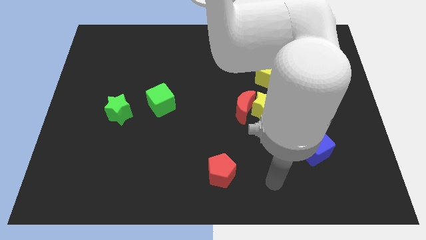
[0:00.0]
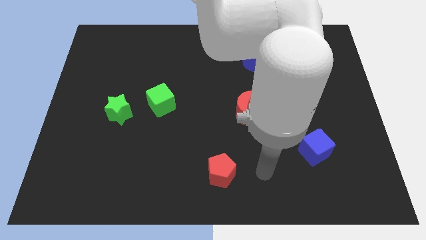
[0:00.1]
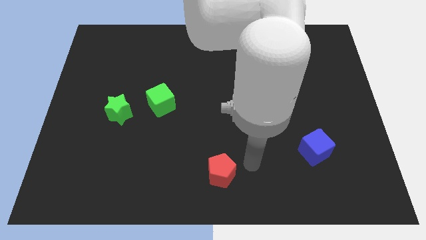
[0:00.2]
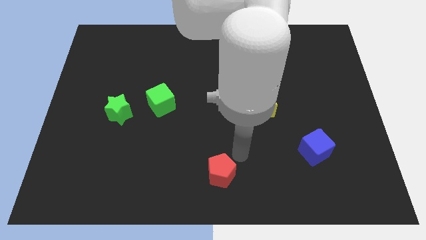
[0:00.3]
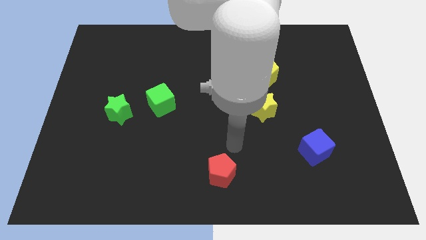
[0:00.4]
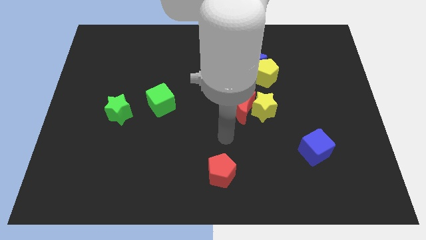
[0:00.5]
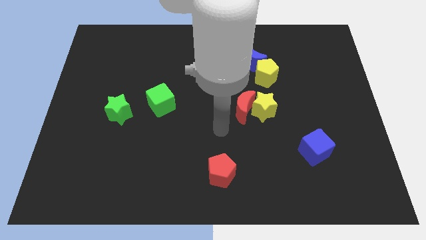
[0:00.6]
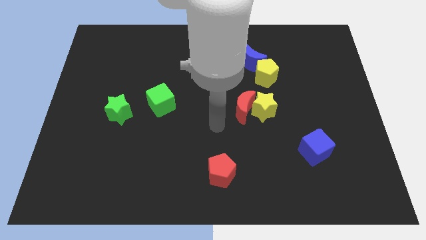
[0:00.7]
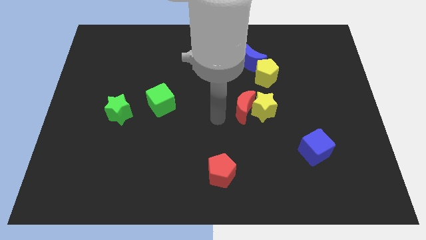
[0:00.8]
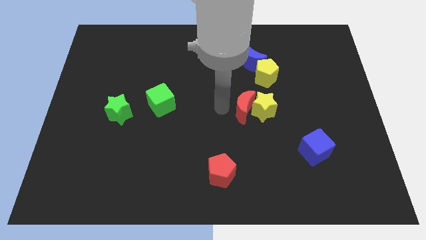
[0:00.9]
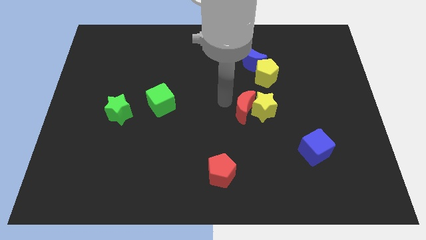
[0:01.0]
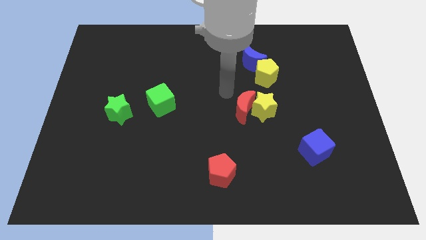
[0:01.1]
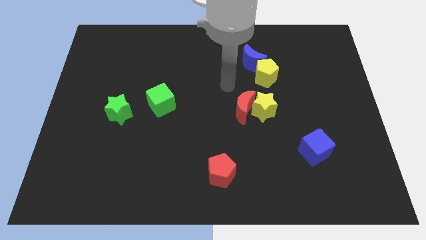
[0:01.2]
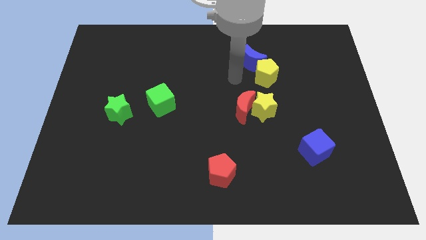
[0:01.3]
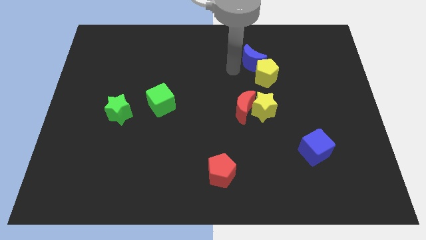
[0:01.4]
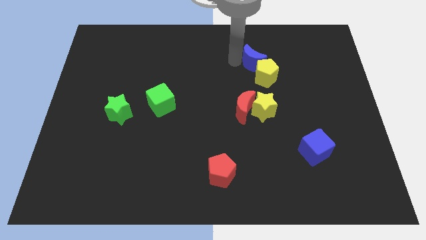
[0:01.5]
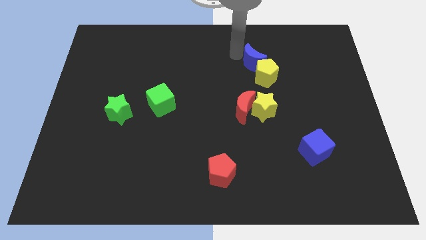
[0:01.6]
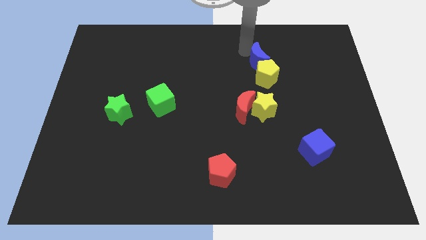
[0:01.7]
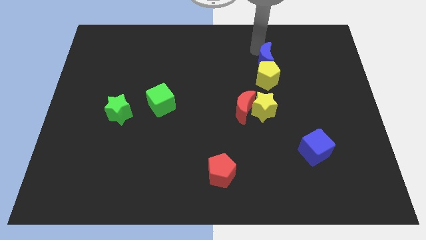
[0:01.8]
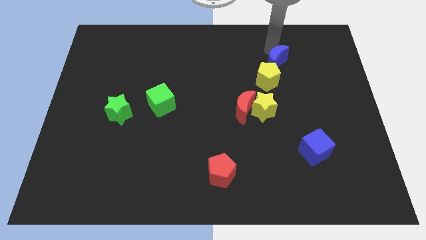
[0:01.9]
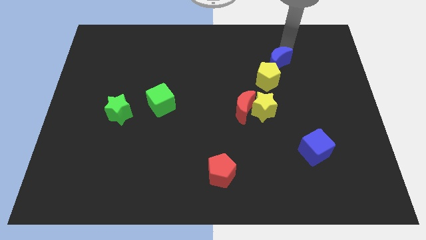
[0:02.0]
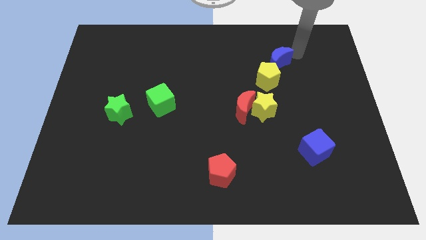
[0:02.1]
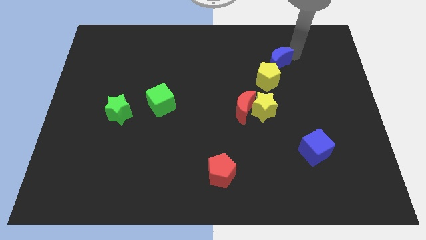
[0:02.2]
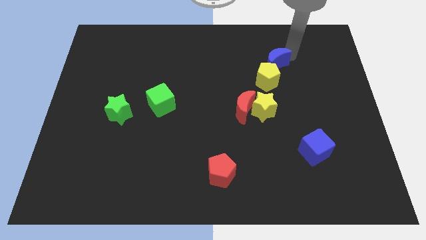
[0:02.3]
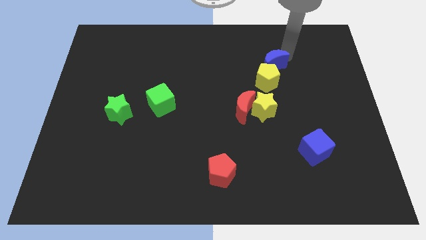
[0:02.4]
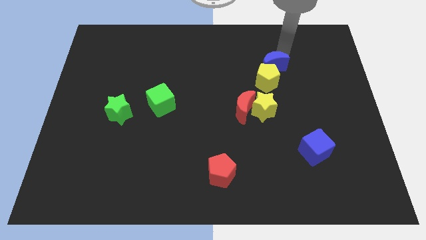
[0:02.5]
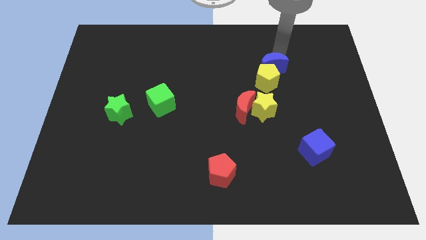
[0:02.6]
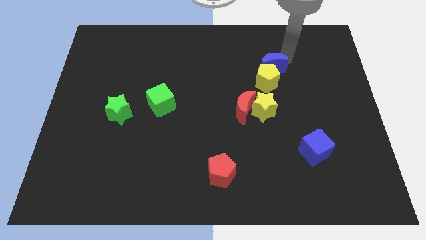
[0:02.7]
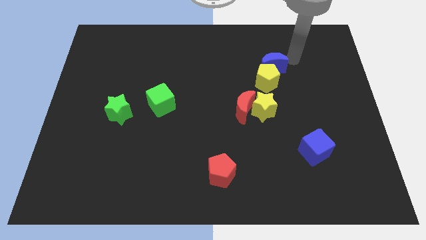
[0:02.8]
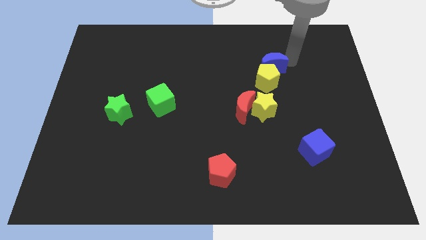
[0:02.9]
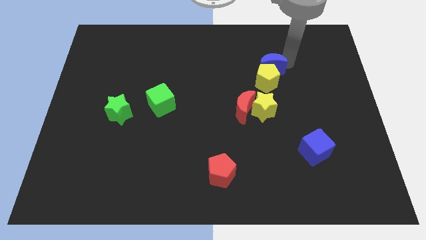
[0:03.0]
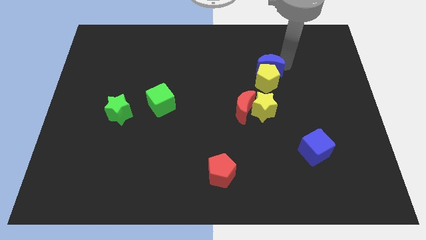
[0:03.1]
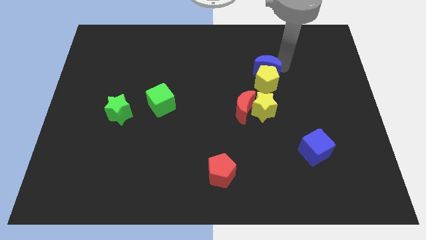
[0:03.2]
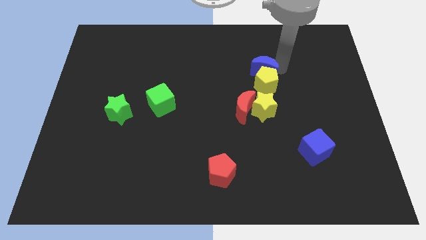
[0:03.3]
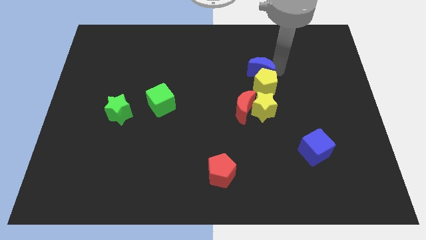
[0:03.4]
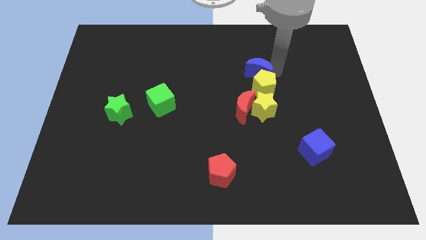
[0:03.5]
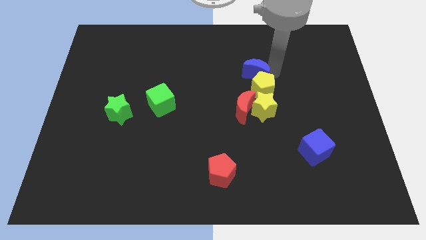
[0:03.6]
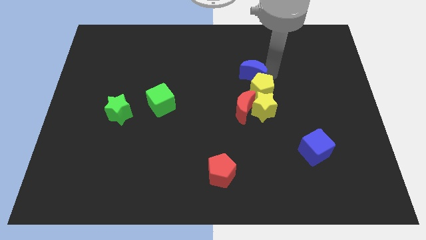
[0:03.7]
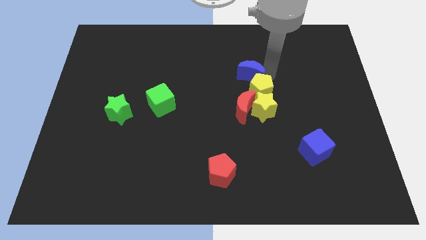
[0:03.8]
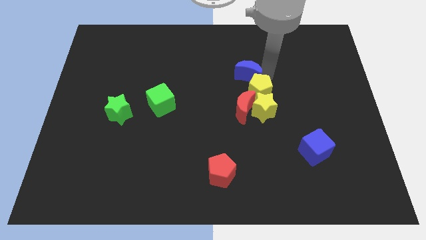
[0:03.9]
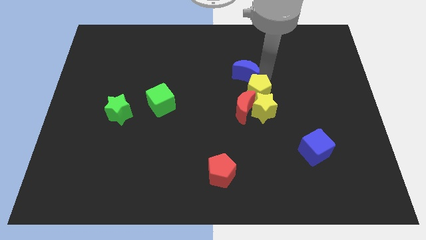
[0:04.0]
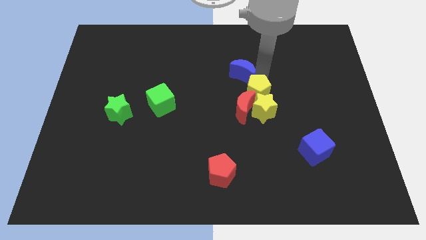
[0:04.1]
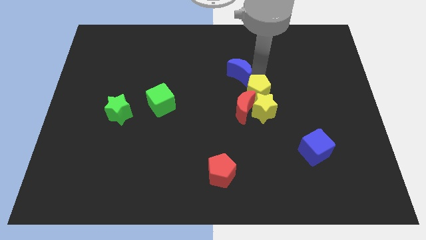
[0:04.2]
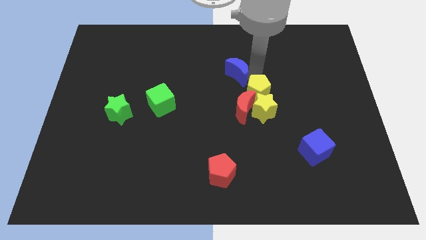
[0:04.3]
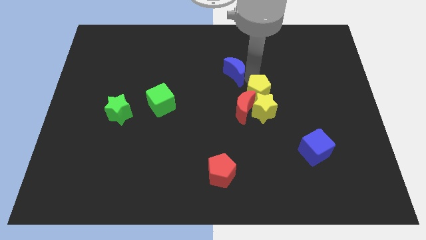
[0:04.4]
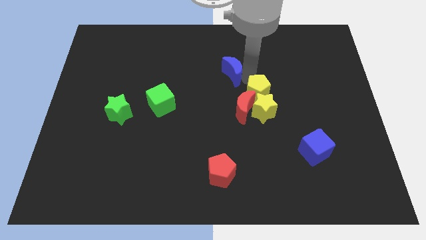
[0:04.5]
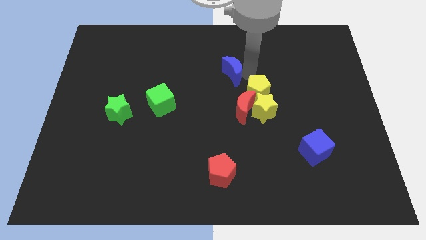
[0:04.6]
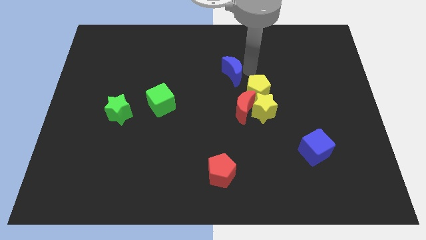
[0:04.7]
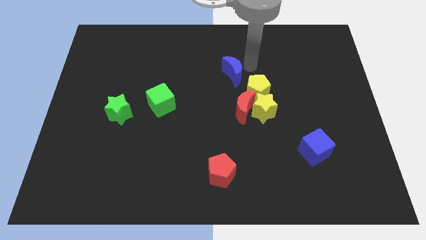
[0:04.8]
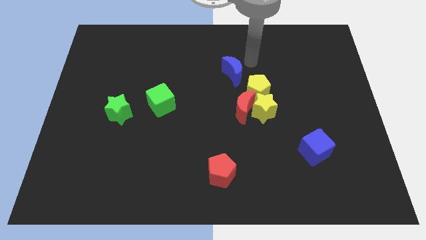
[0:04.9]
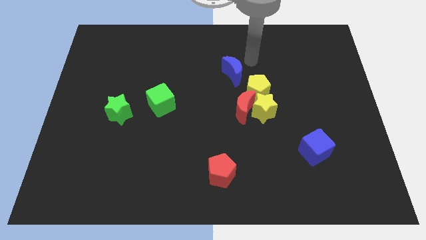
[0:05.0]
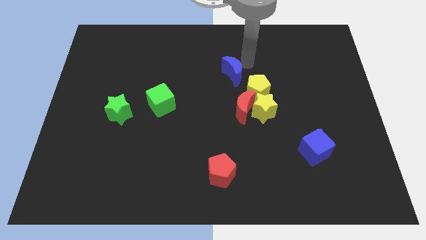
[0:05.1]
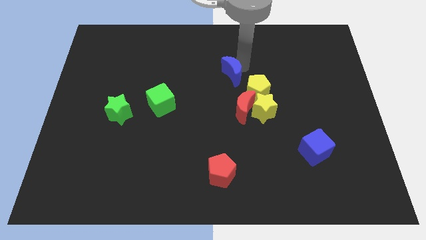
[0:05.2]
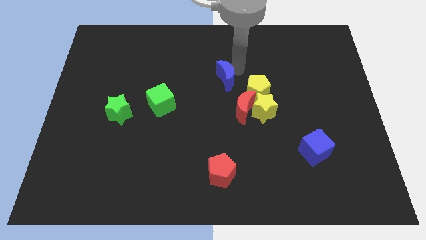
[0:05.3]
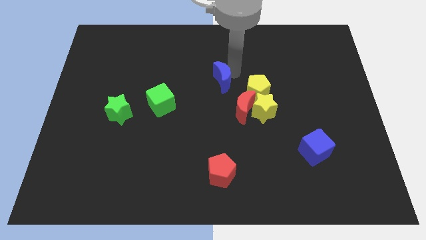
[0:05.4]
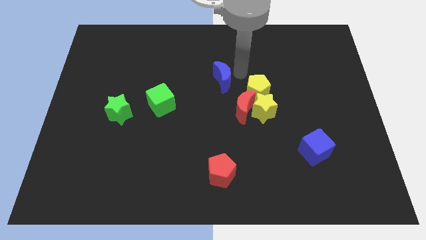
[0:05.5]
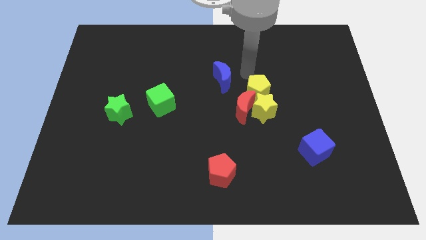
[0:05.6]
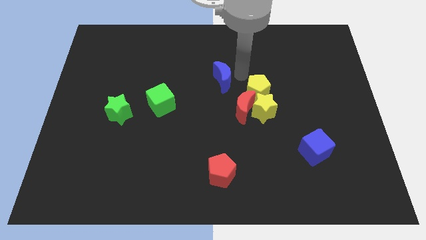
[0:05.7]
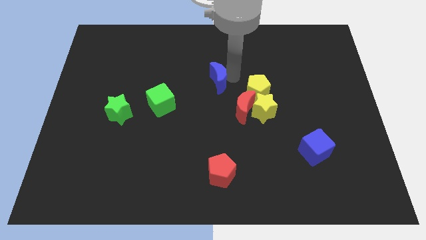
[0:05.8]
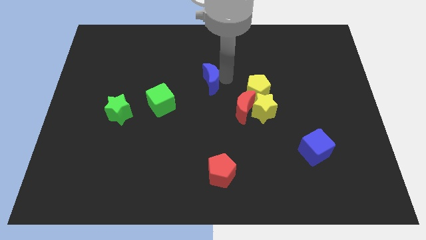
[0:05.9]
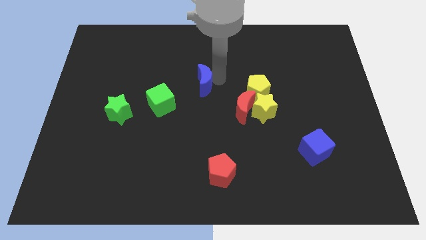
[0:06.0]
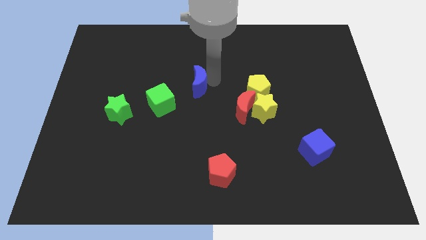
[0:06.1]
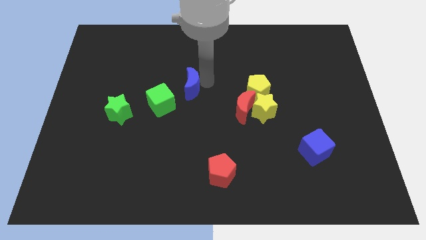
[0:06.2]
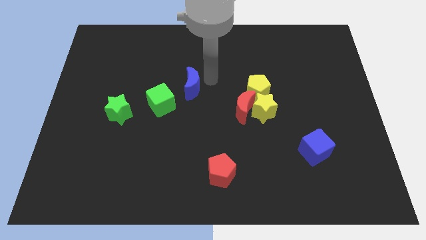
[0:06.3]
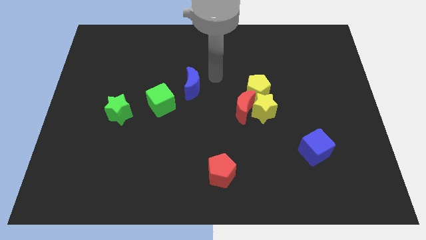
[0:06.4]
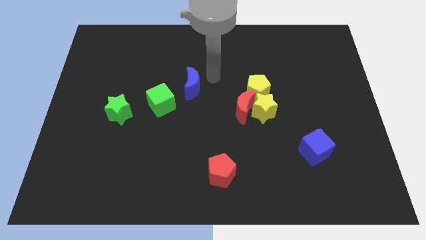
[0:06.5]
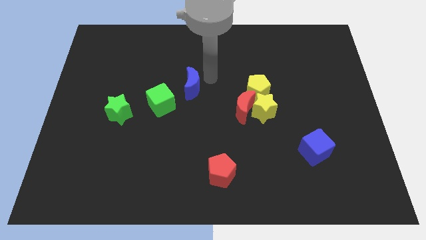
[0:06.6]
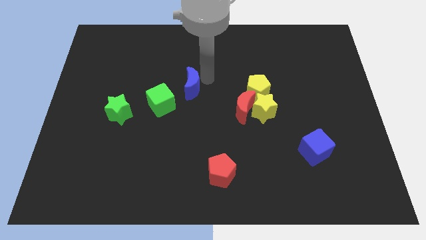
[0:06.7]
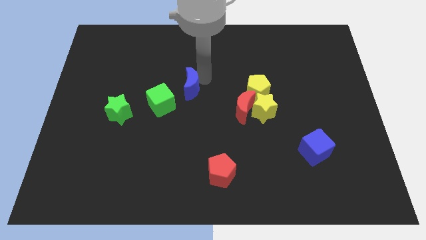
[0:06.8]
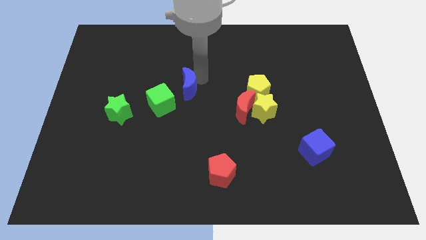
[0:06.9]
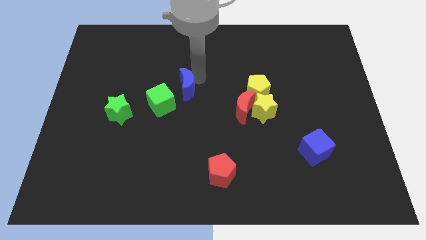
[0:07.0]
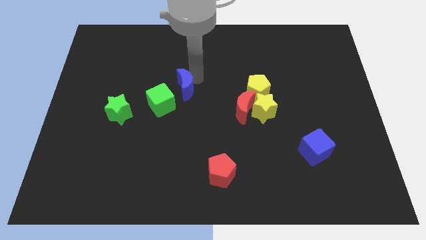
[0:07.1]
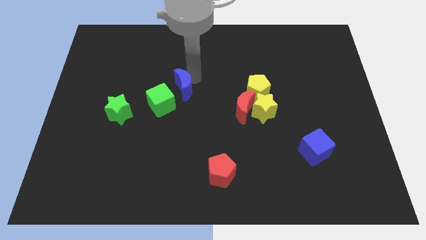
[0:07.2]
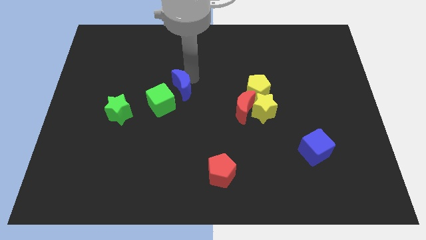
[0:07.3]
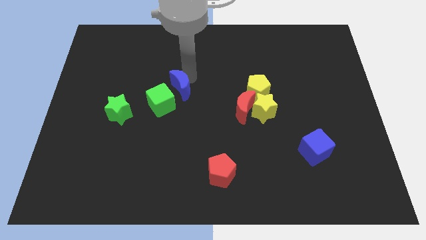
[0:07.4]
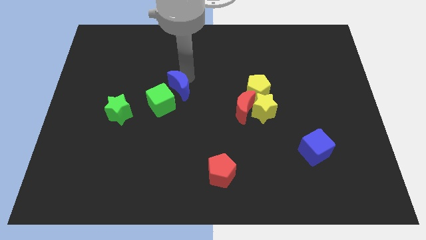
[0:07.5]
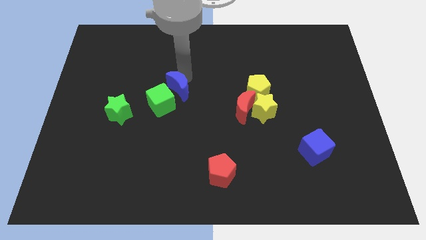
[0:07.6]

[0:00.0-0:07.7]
put the blue moon towards the green cube
